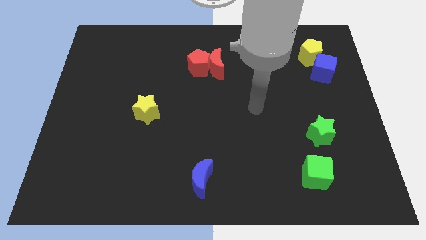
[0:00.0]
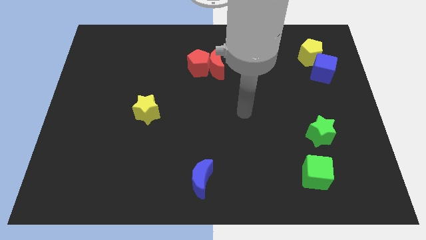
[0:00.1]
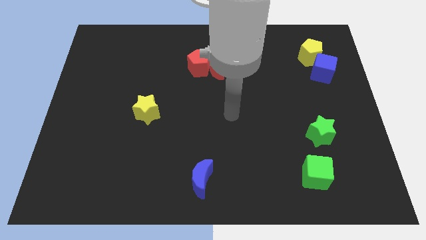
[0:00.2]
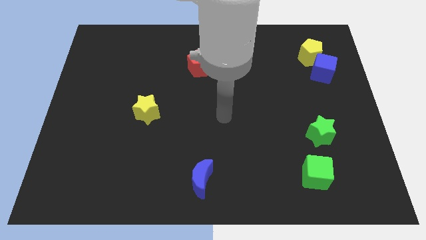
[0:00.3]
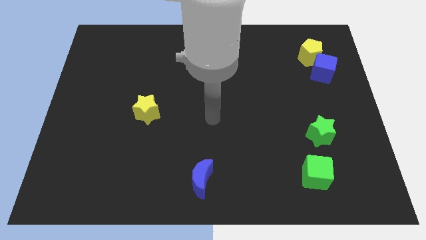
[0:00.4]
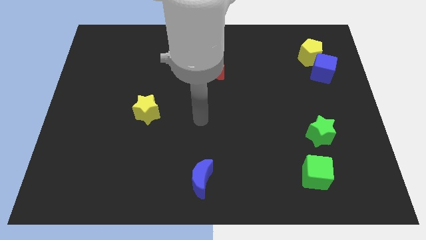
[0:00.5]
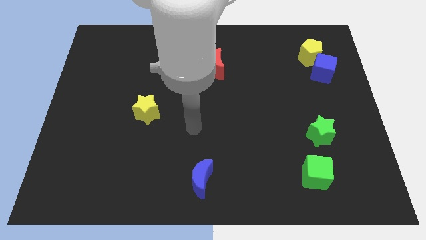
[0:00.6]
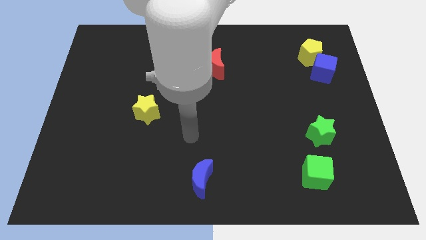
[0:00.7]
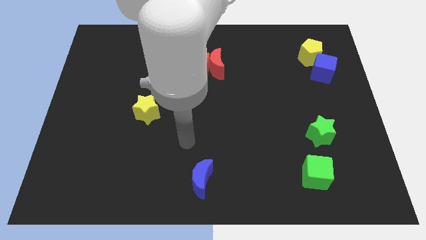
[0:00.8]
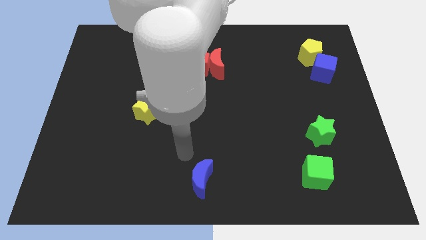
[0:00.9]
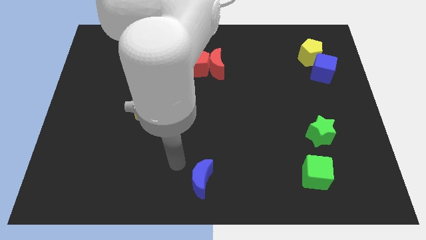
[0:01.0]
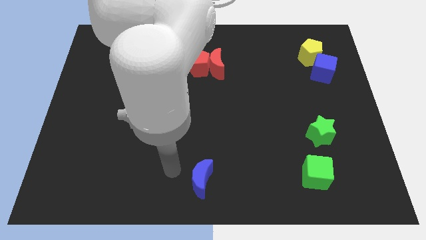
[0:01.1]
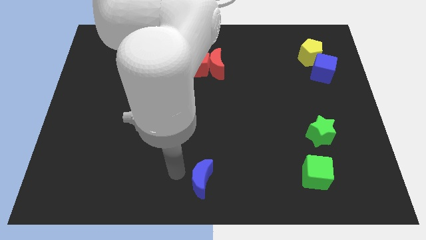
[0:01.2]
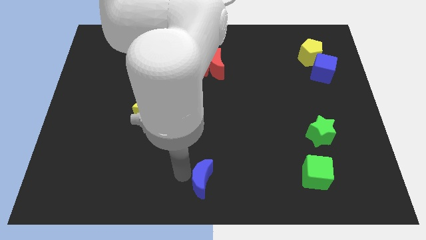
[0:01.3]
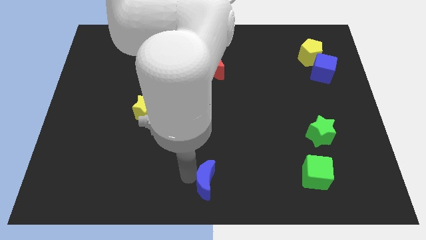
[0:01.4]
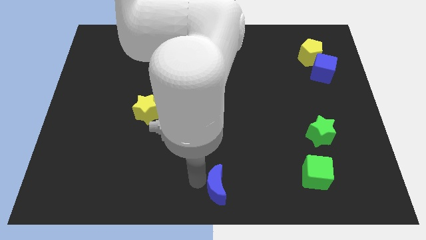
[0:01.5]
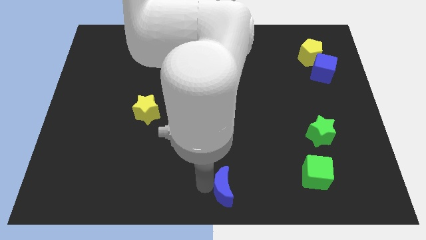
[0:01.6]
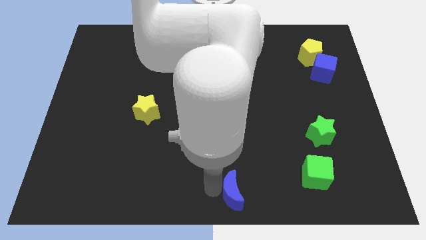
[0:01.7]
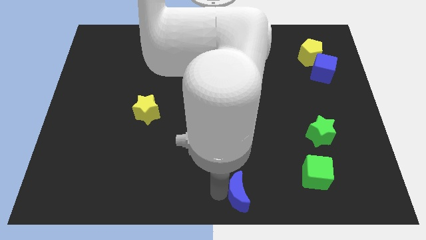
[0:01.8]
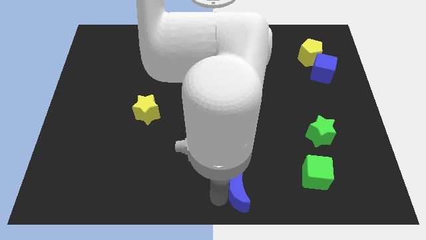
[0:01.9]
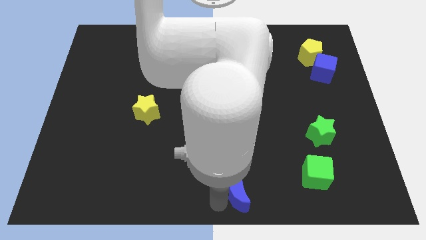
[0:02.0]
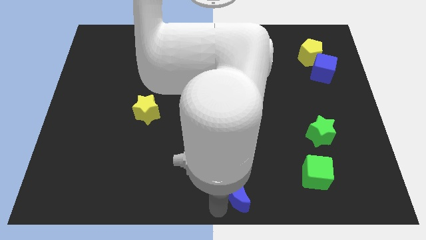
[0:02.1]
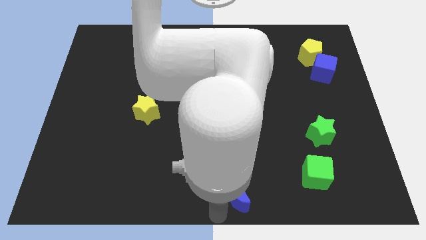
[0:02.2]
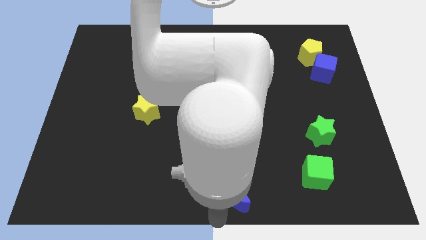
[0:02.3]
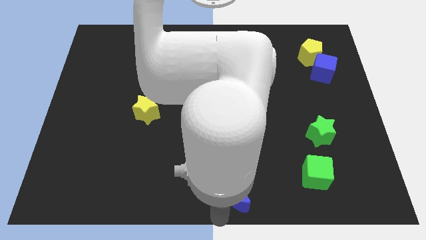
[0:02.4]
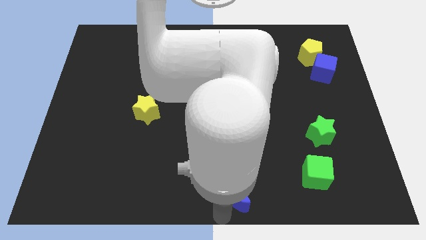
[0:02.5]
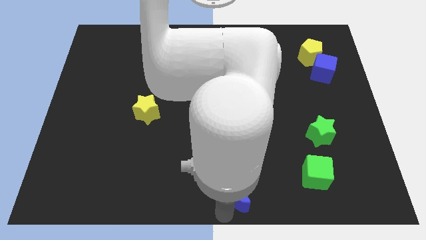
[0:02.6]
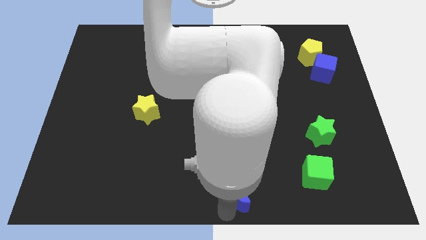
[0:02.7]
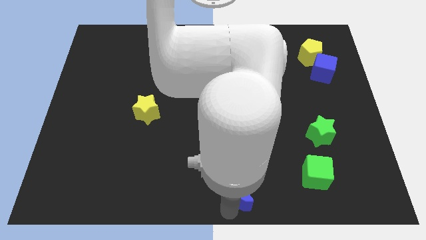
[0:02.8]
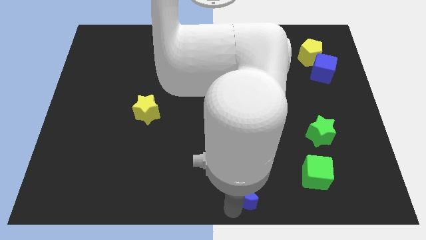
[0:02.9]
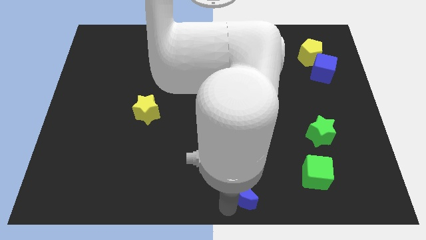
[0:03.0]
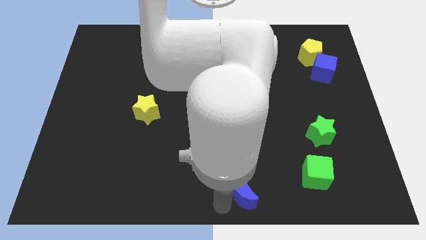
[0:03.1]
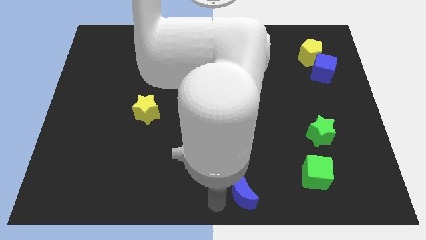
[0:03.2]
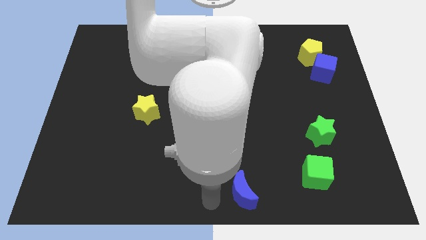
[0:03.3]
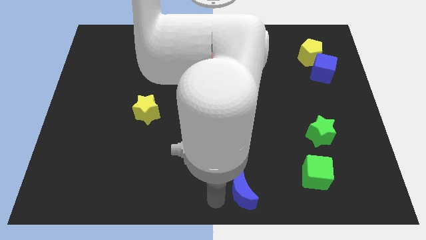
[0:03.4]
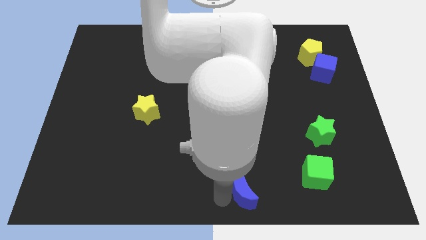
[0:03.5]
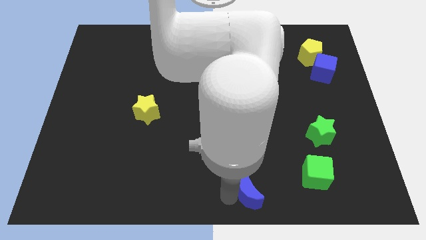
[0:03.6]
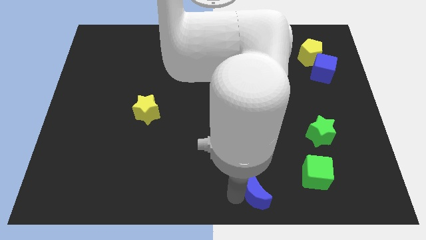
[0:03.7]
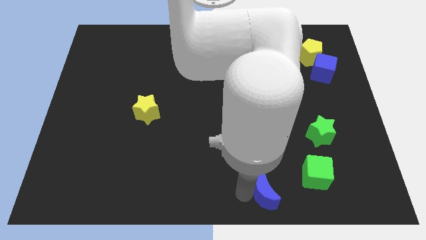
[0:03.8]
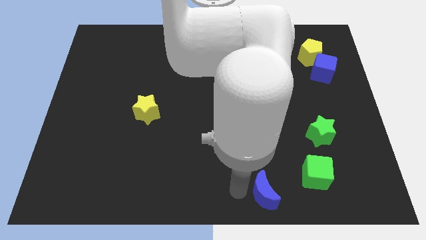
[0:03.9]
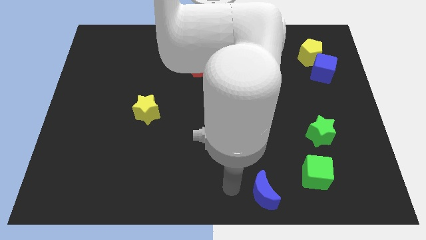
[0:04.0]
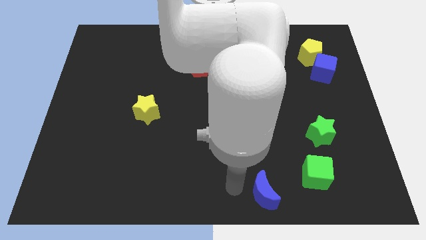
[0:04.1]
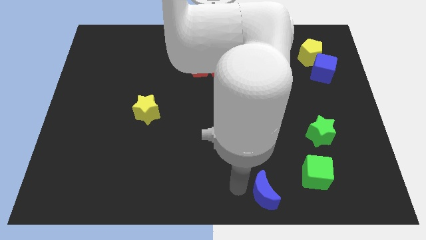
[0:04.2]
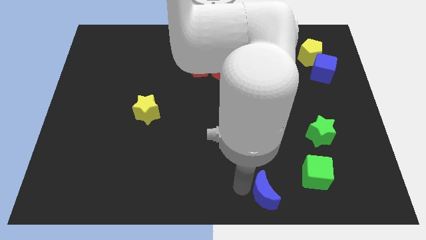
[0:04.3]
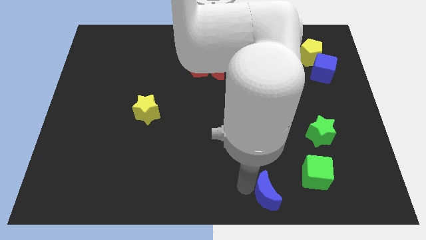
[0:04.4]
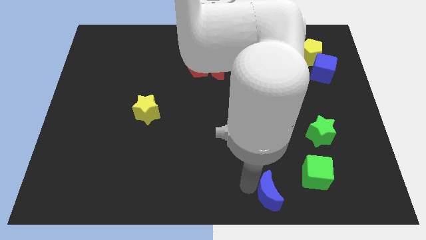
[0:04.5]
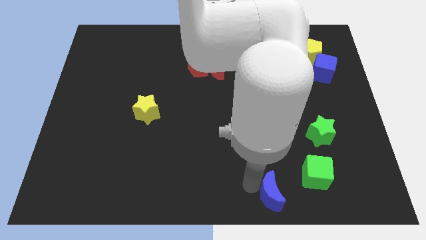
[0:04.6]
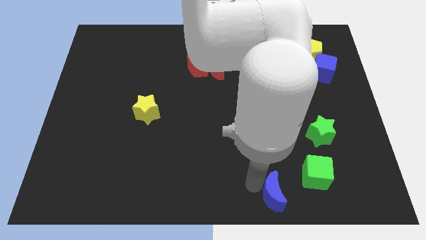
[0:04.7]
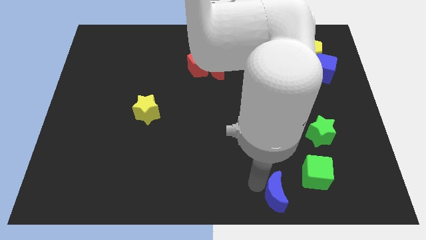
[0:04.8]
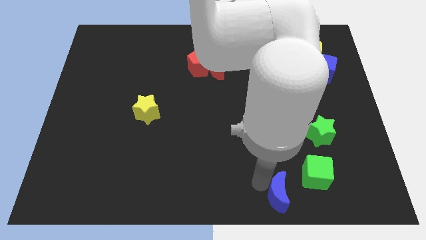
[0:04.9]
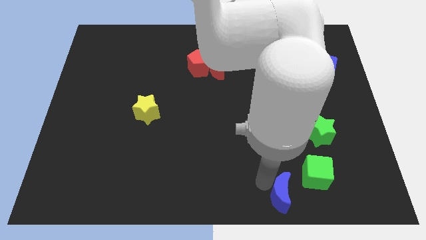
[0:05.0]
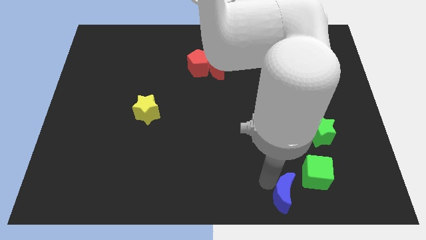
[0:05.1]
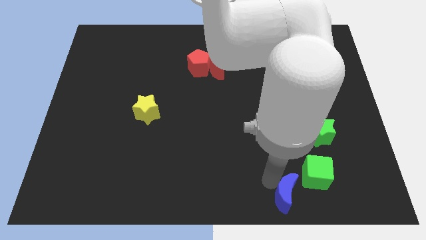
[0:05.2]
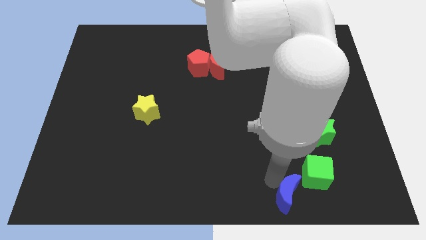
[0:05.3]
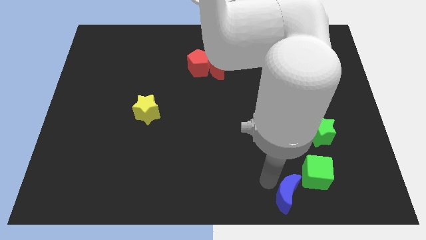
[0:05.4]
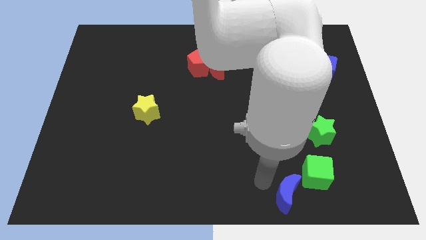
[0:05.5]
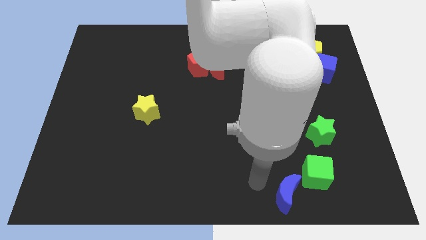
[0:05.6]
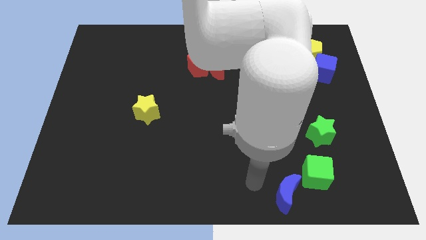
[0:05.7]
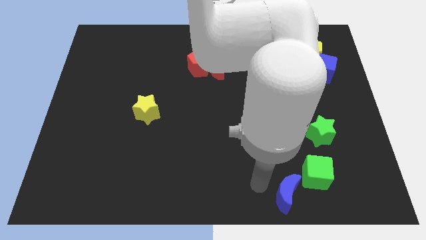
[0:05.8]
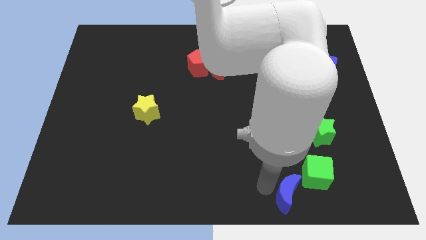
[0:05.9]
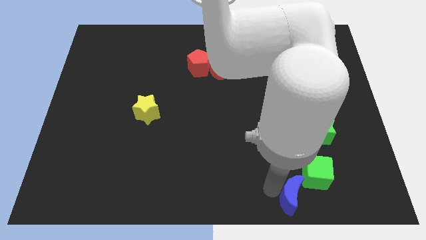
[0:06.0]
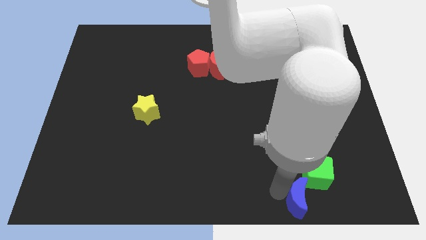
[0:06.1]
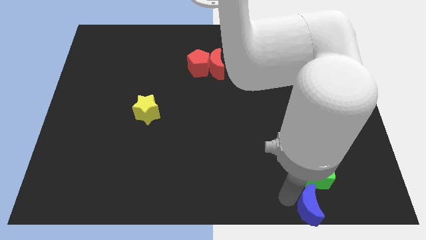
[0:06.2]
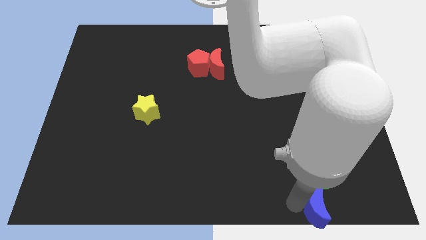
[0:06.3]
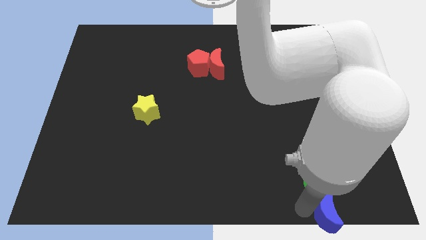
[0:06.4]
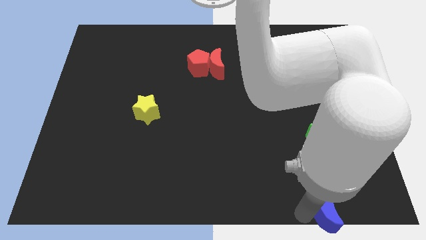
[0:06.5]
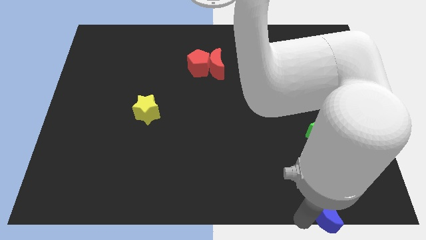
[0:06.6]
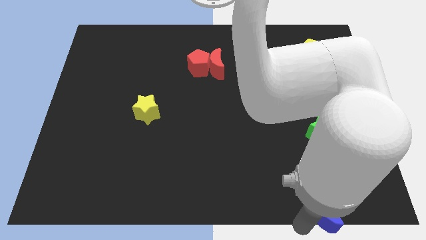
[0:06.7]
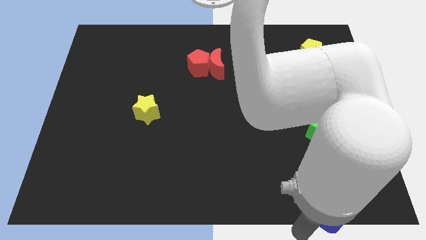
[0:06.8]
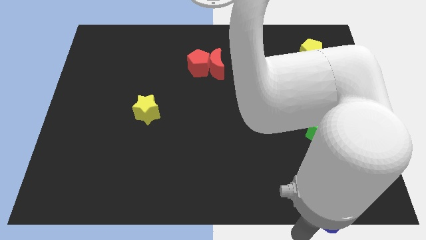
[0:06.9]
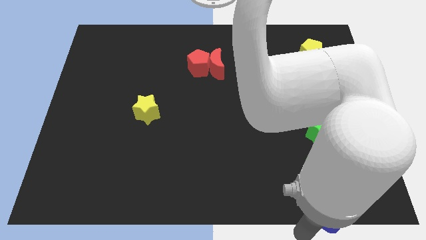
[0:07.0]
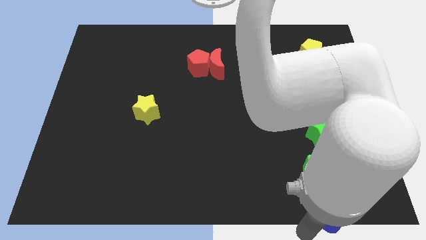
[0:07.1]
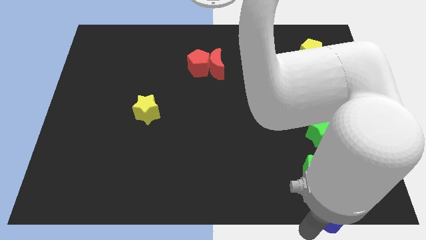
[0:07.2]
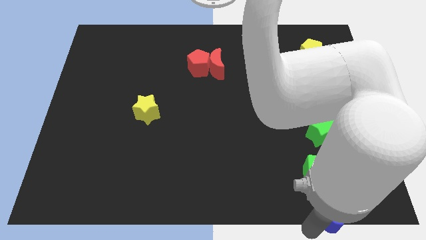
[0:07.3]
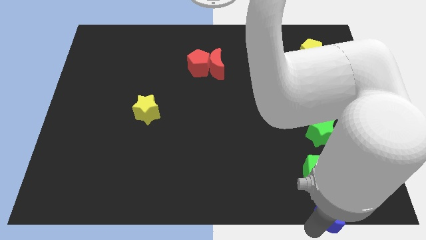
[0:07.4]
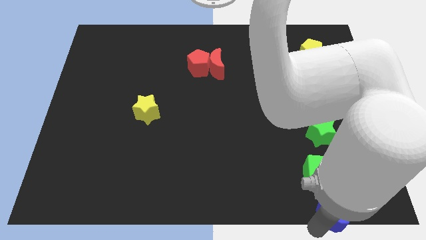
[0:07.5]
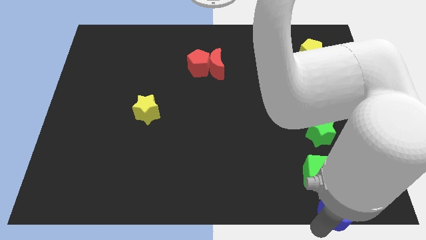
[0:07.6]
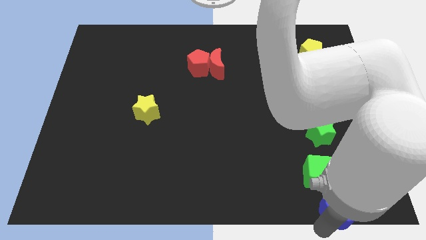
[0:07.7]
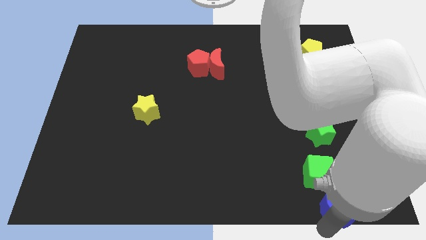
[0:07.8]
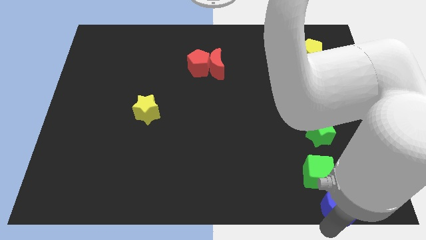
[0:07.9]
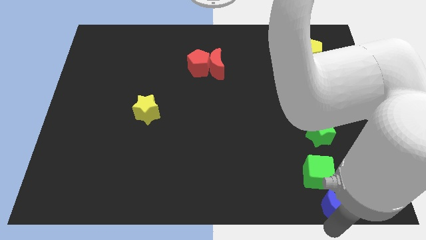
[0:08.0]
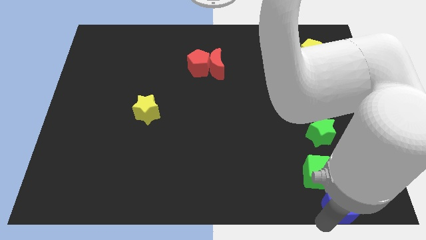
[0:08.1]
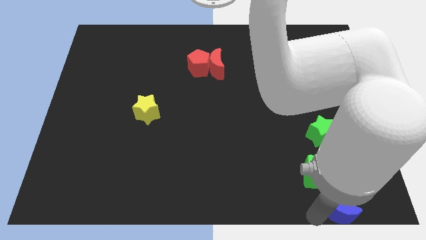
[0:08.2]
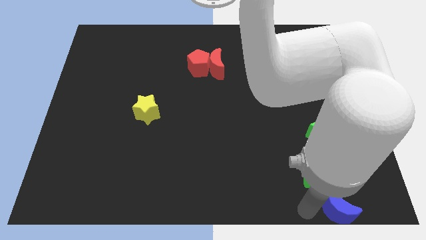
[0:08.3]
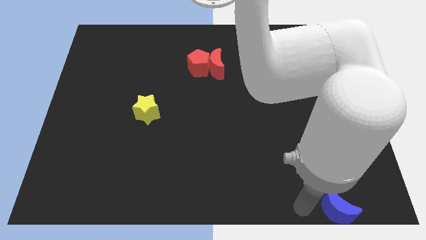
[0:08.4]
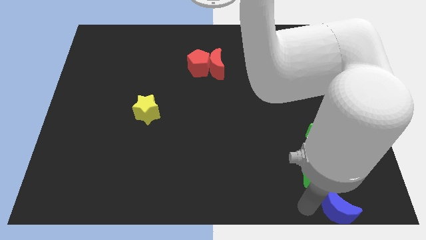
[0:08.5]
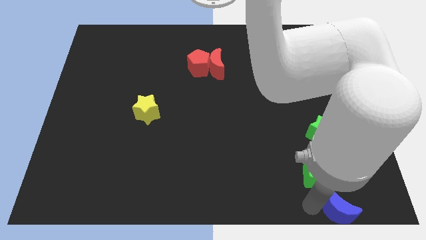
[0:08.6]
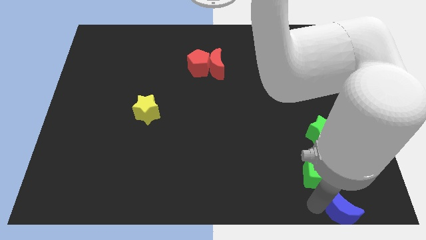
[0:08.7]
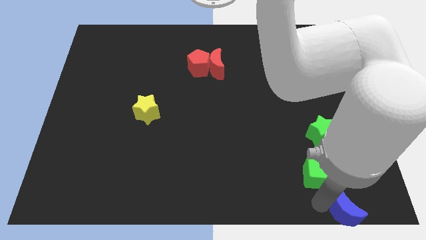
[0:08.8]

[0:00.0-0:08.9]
put the blue moon to the lower right corner
